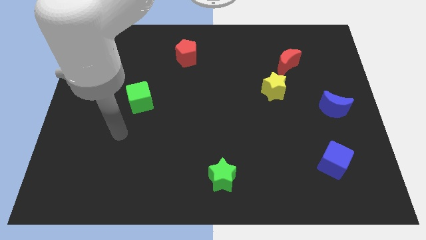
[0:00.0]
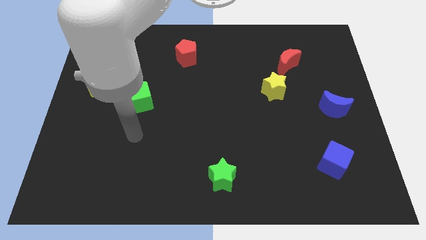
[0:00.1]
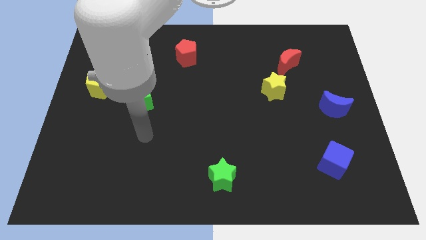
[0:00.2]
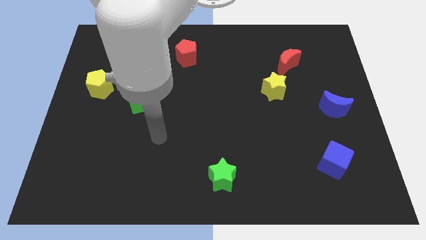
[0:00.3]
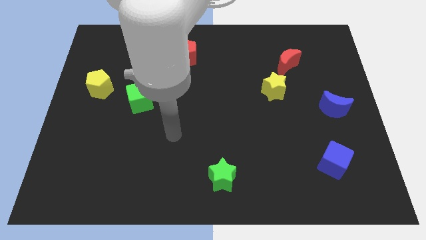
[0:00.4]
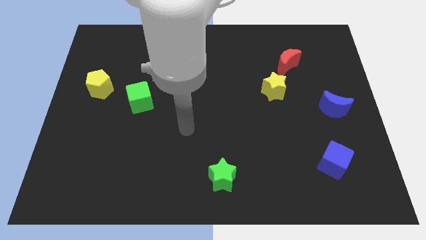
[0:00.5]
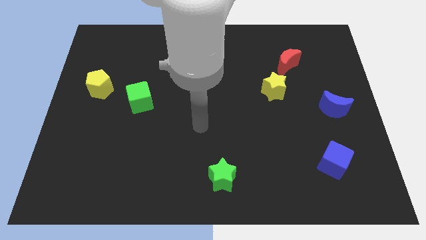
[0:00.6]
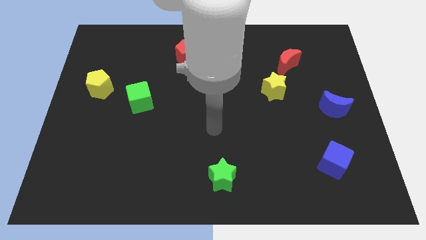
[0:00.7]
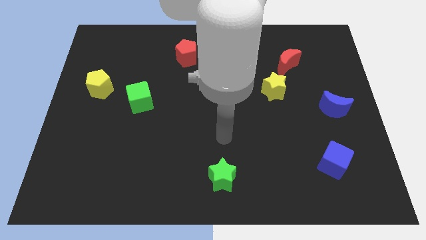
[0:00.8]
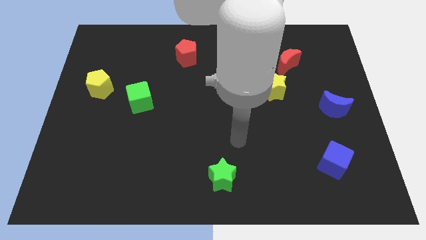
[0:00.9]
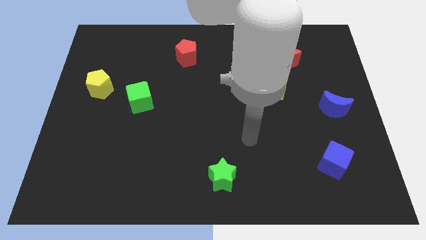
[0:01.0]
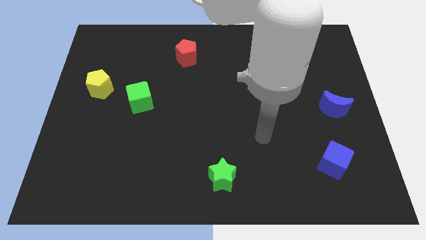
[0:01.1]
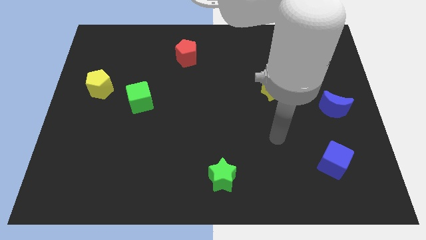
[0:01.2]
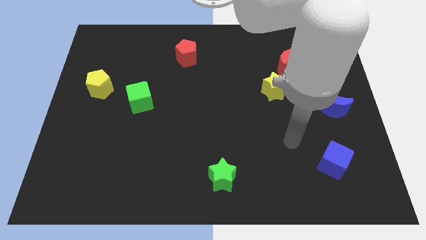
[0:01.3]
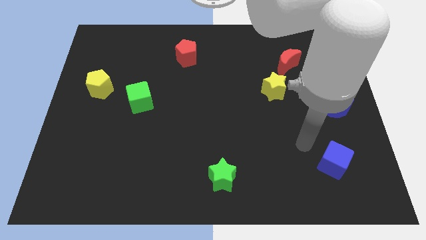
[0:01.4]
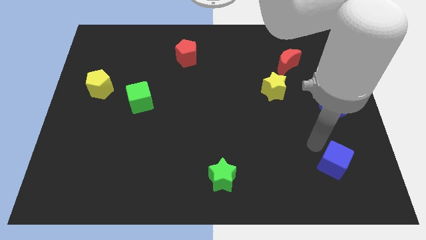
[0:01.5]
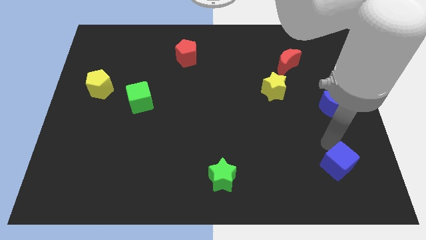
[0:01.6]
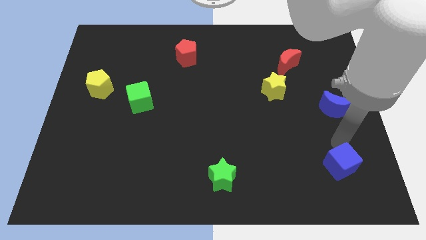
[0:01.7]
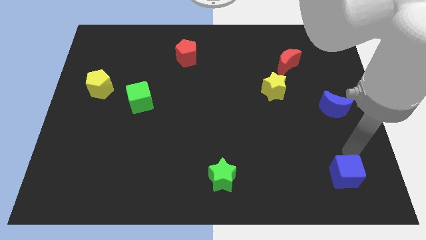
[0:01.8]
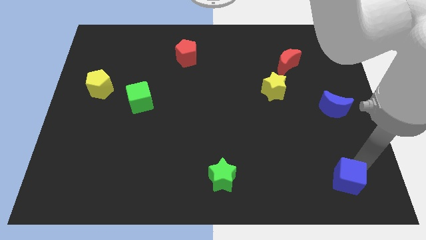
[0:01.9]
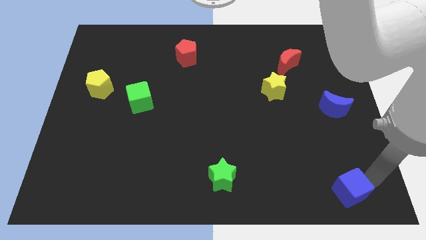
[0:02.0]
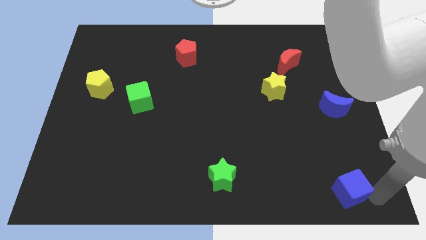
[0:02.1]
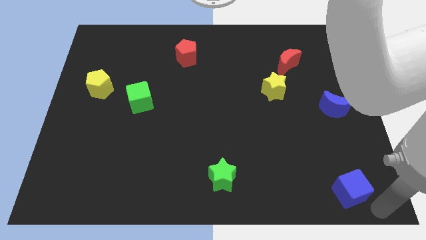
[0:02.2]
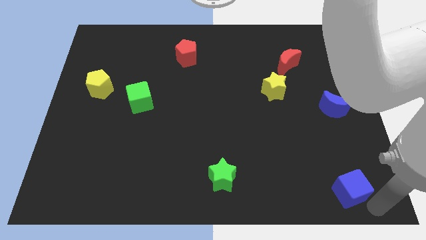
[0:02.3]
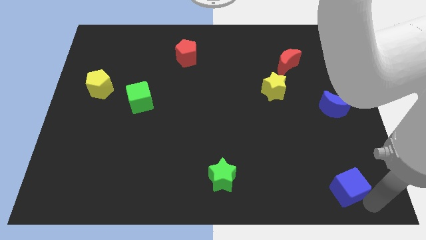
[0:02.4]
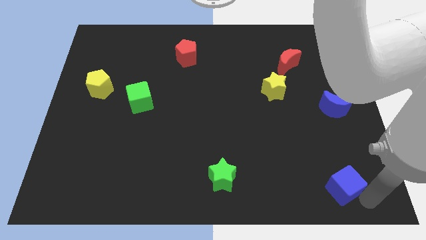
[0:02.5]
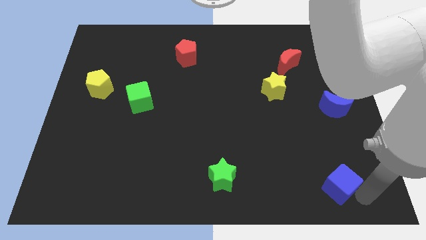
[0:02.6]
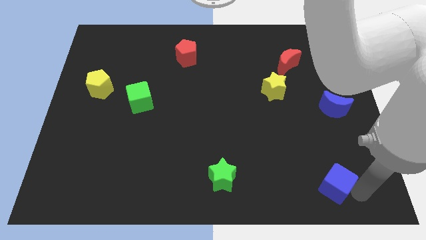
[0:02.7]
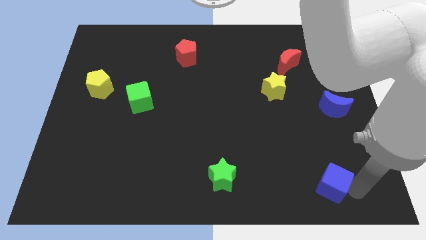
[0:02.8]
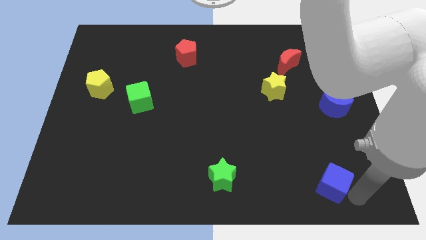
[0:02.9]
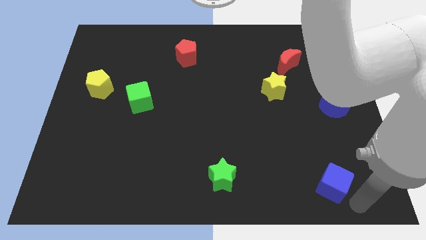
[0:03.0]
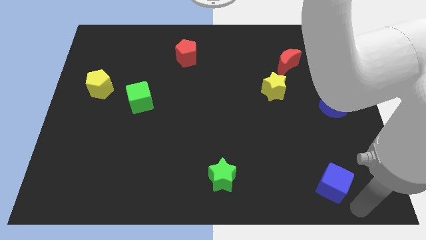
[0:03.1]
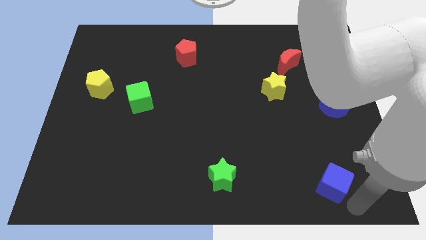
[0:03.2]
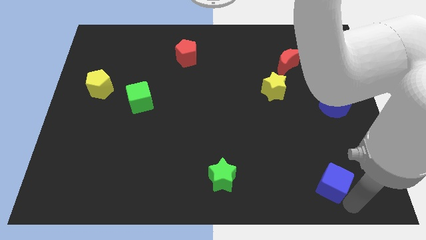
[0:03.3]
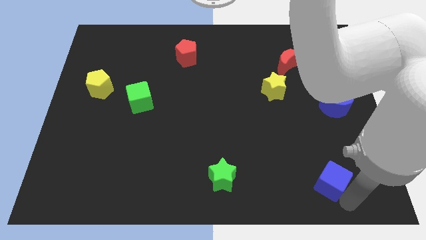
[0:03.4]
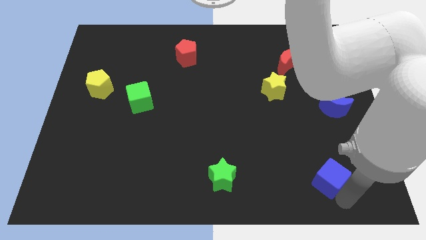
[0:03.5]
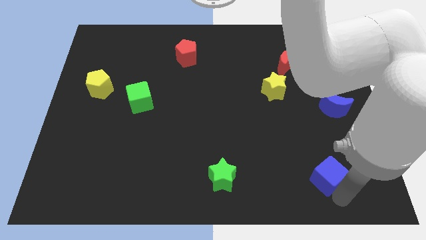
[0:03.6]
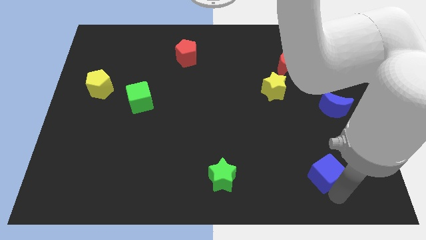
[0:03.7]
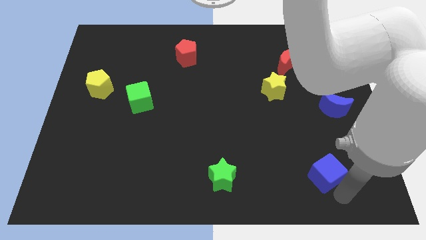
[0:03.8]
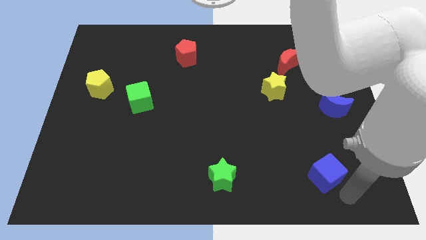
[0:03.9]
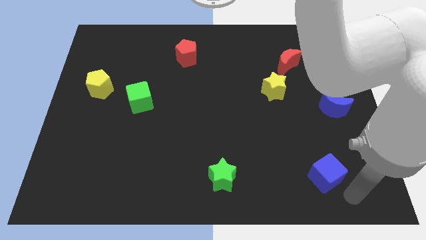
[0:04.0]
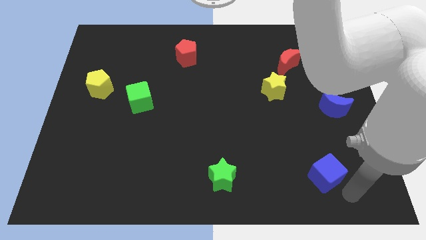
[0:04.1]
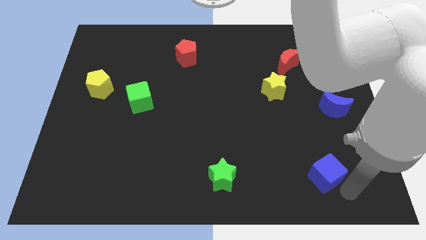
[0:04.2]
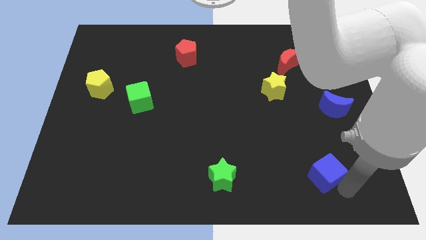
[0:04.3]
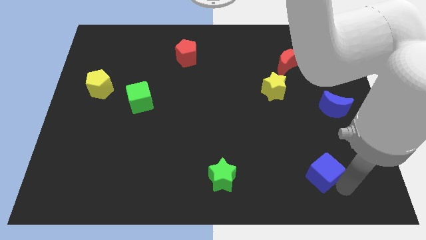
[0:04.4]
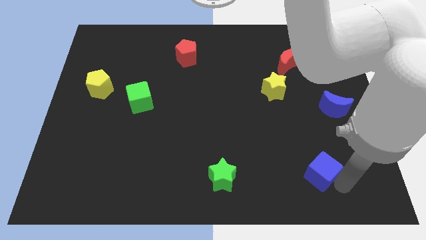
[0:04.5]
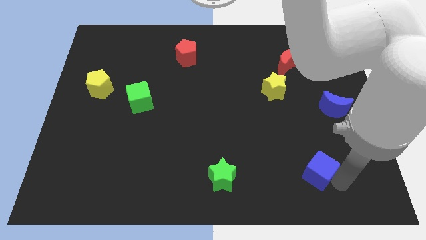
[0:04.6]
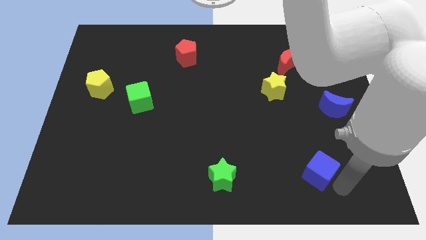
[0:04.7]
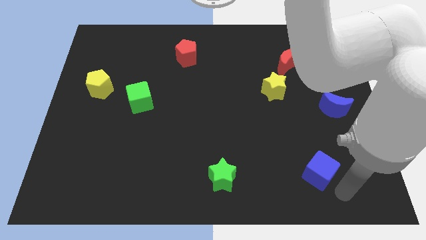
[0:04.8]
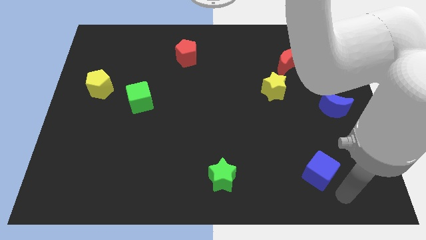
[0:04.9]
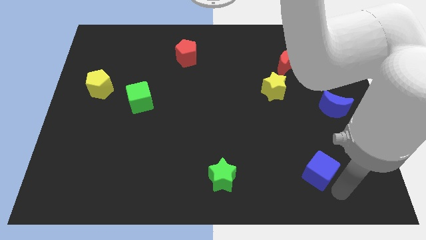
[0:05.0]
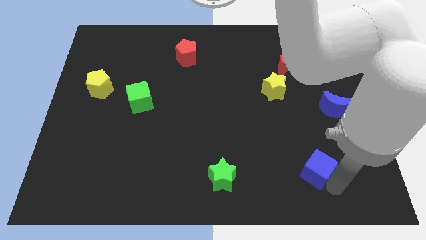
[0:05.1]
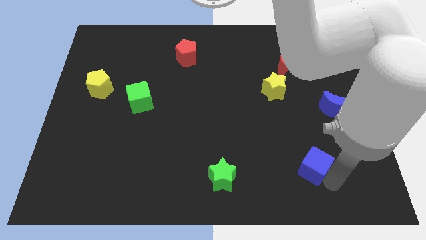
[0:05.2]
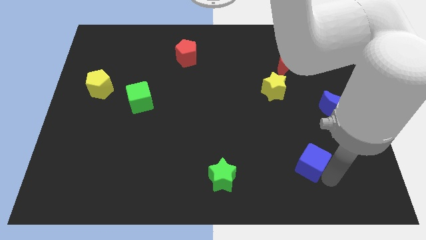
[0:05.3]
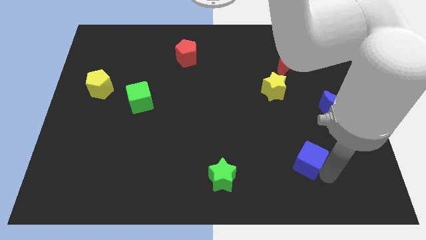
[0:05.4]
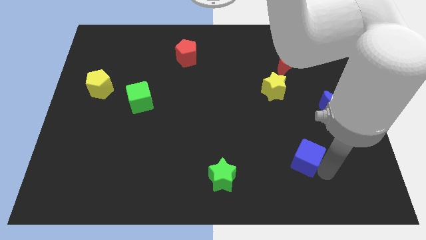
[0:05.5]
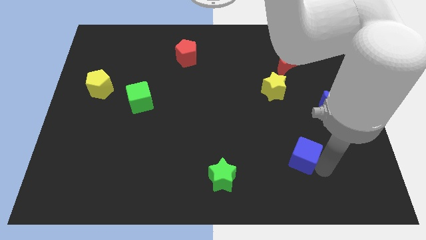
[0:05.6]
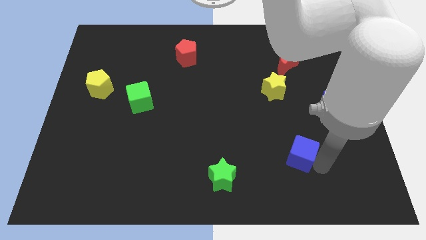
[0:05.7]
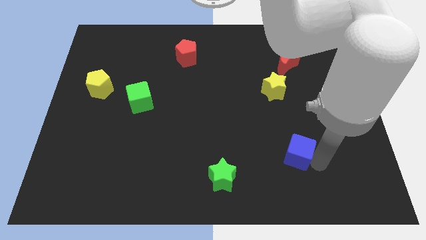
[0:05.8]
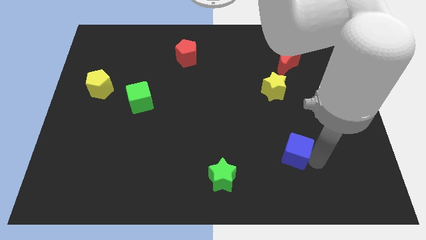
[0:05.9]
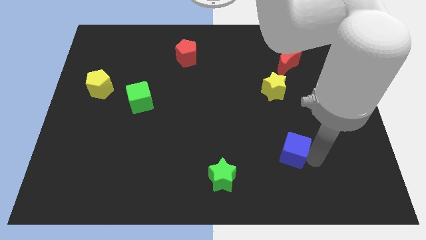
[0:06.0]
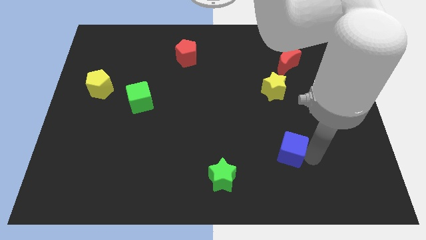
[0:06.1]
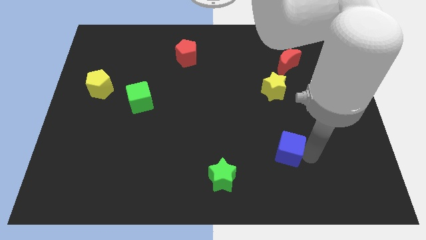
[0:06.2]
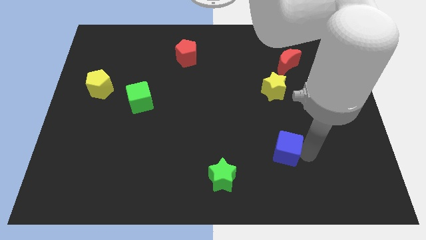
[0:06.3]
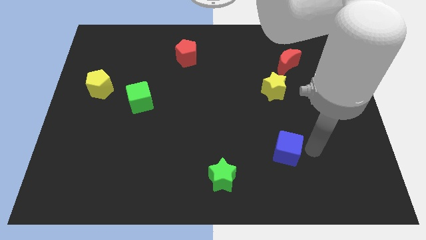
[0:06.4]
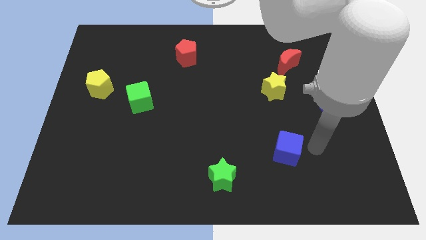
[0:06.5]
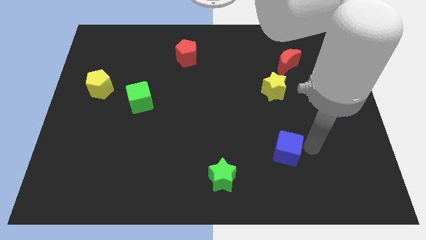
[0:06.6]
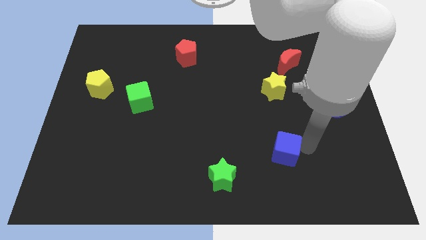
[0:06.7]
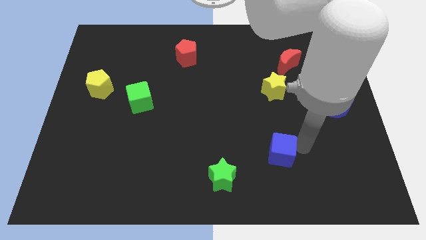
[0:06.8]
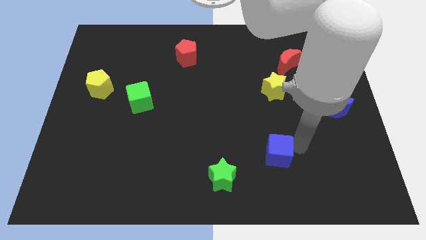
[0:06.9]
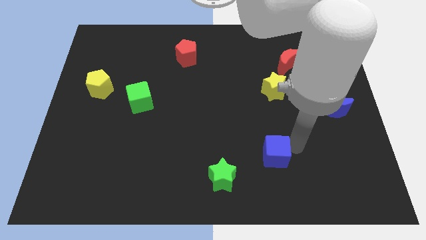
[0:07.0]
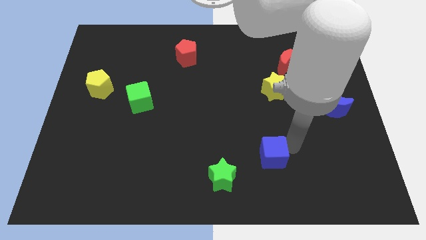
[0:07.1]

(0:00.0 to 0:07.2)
move the blue cube diagonally up and to the right of the green star
